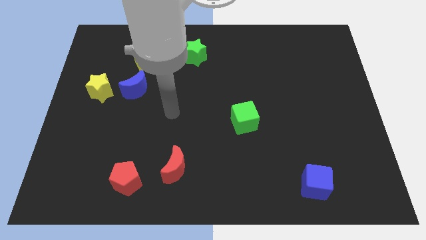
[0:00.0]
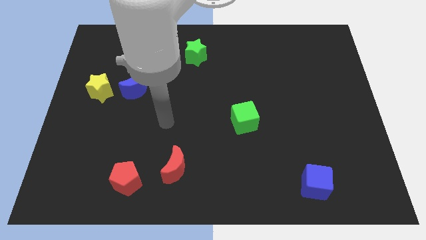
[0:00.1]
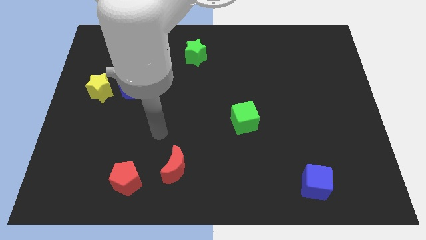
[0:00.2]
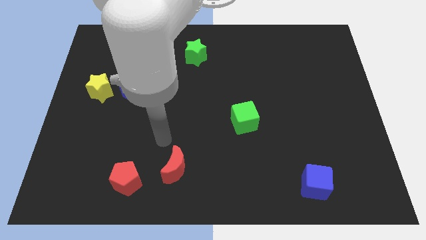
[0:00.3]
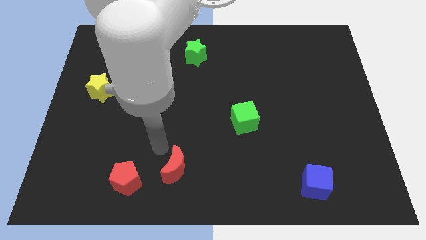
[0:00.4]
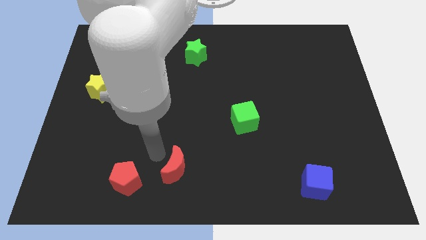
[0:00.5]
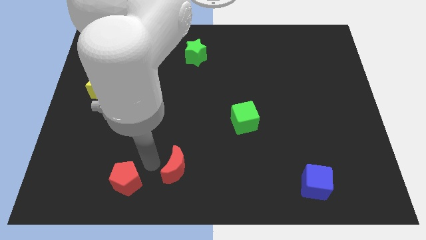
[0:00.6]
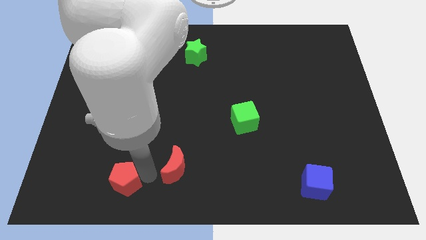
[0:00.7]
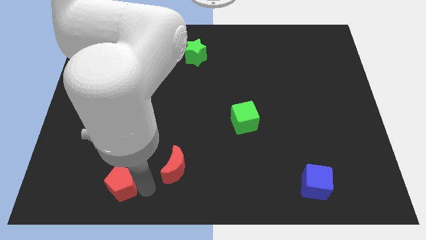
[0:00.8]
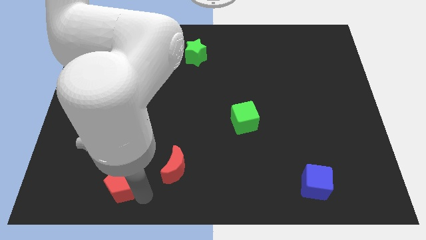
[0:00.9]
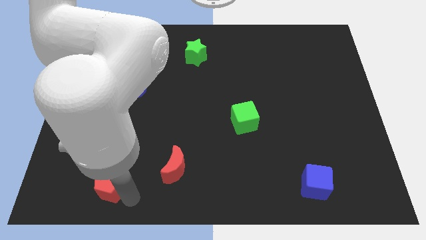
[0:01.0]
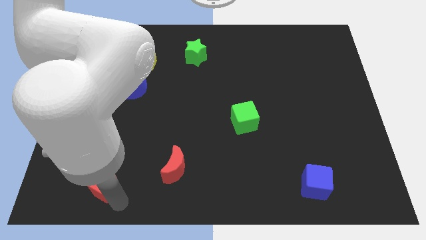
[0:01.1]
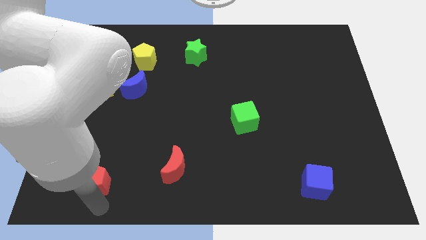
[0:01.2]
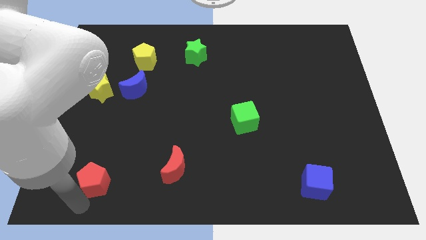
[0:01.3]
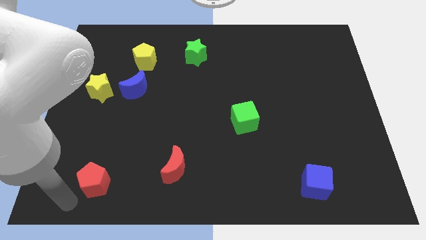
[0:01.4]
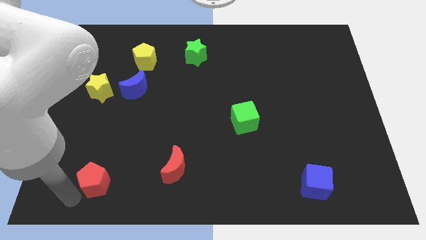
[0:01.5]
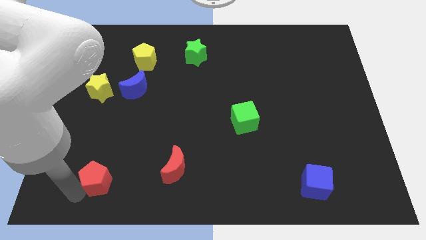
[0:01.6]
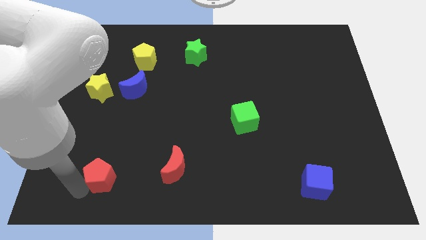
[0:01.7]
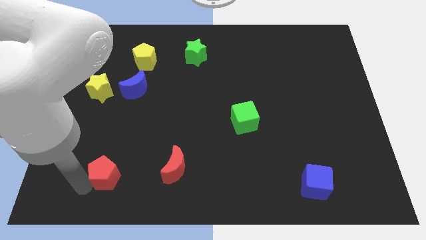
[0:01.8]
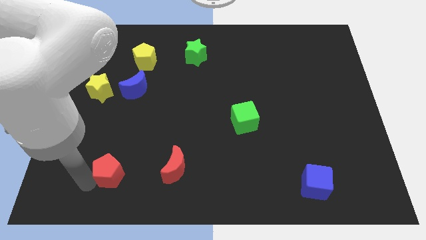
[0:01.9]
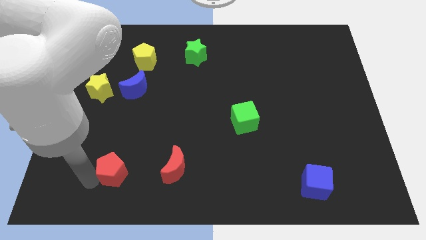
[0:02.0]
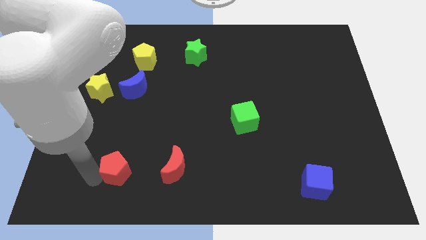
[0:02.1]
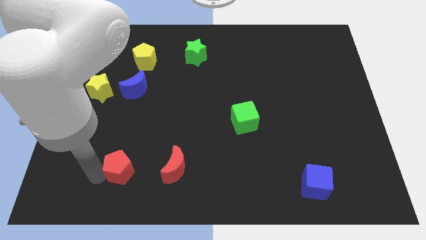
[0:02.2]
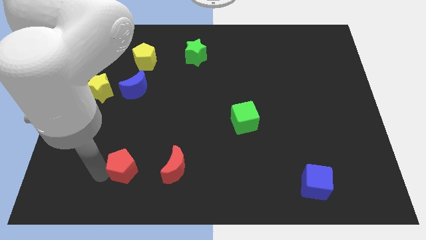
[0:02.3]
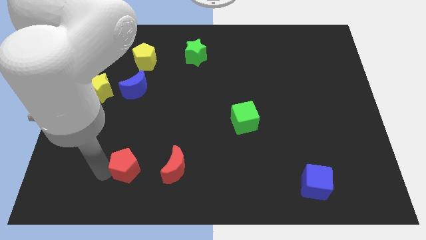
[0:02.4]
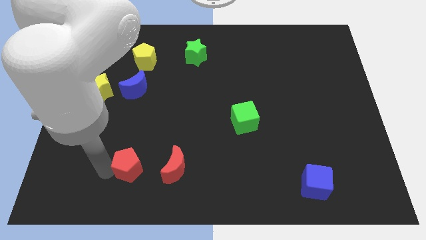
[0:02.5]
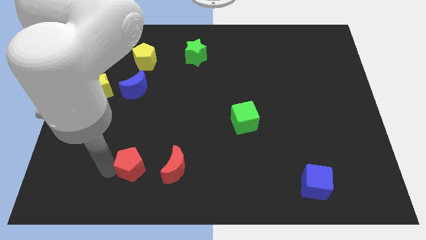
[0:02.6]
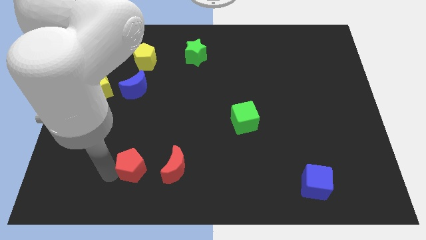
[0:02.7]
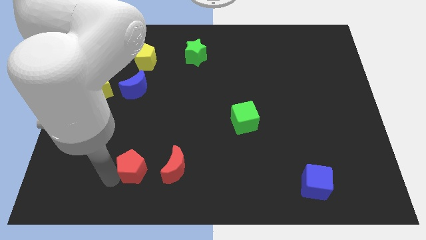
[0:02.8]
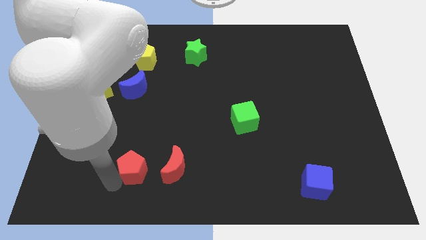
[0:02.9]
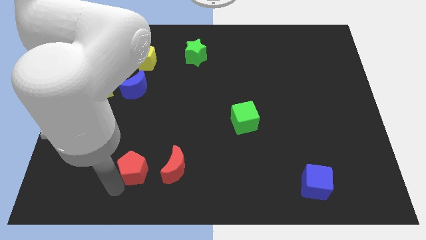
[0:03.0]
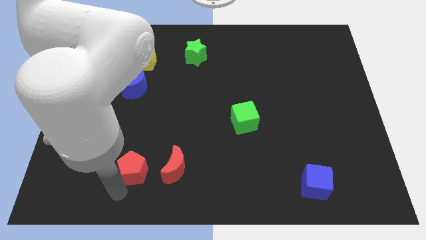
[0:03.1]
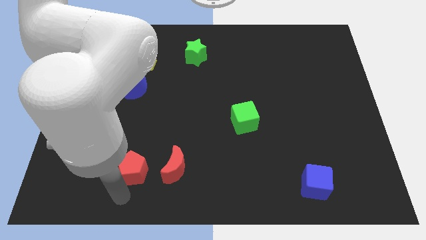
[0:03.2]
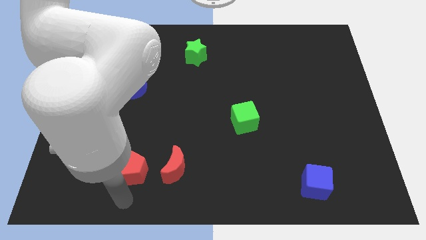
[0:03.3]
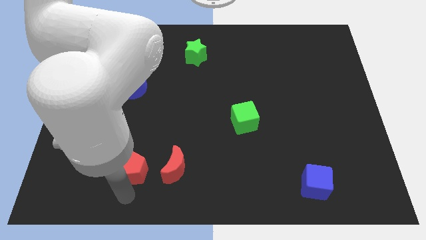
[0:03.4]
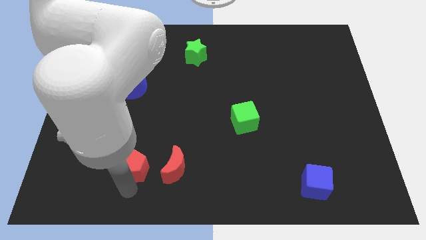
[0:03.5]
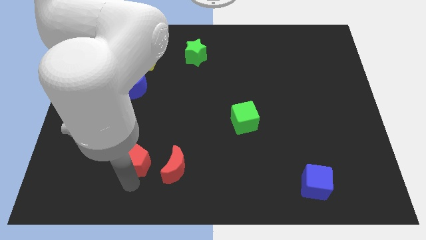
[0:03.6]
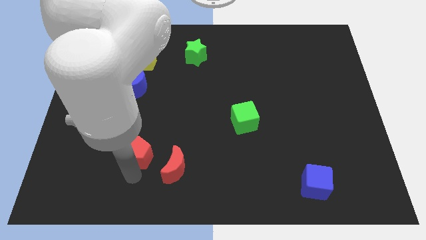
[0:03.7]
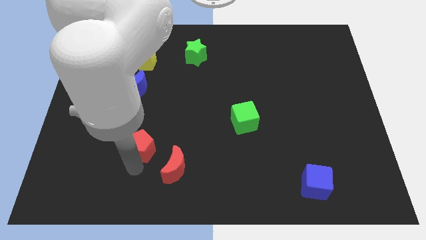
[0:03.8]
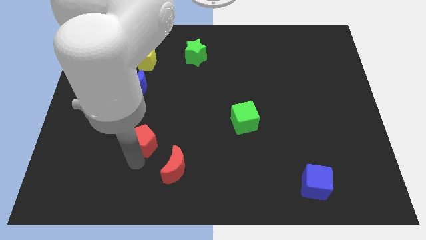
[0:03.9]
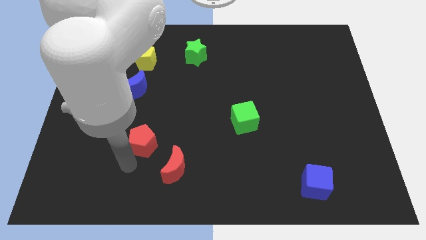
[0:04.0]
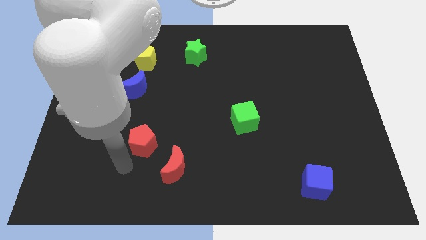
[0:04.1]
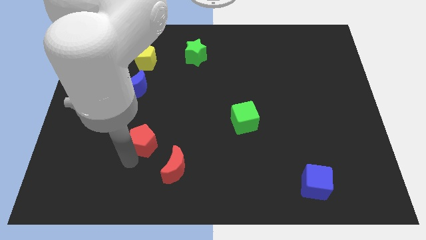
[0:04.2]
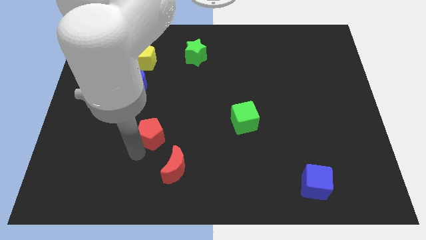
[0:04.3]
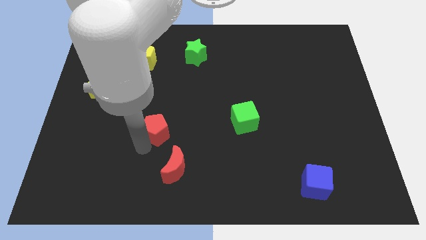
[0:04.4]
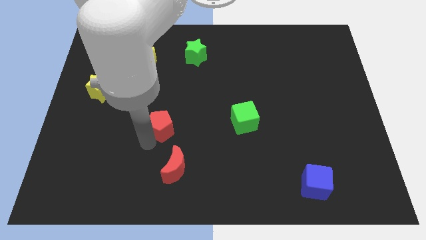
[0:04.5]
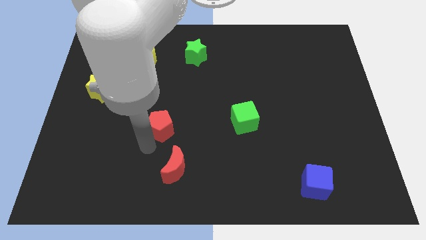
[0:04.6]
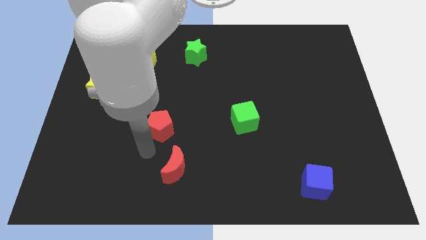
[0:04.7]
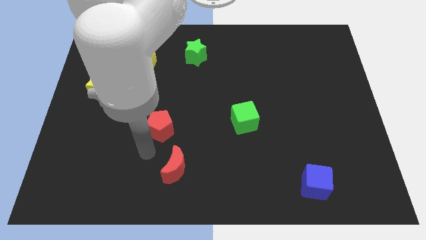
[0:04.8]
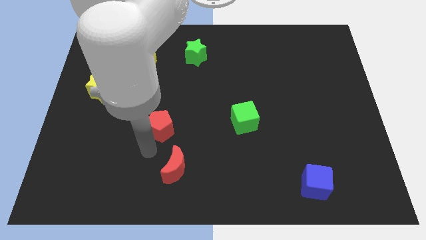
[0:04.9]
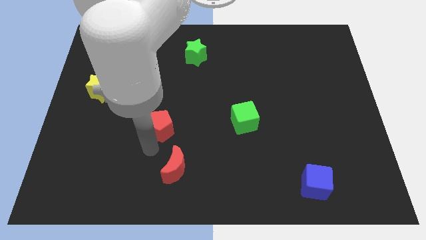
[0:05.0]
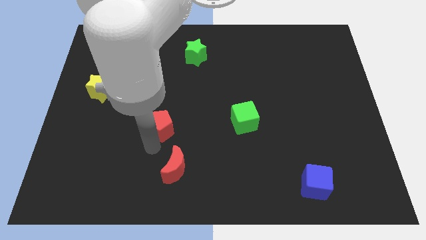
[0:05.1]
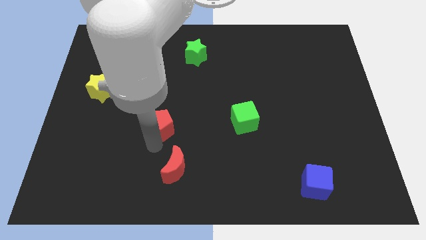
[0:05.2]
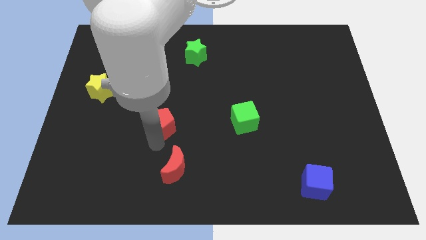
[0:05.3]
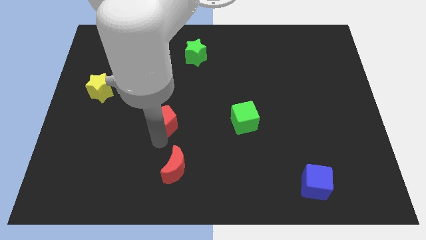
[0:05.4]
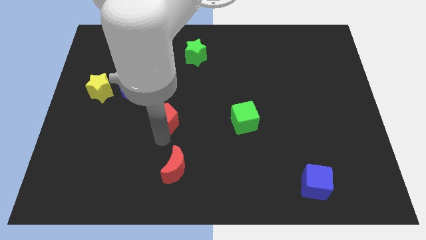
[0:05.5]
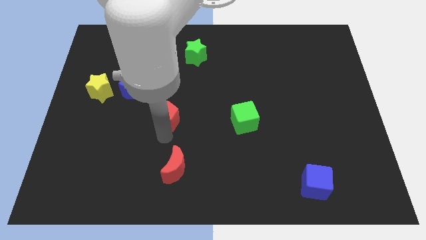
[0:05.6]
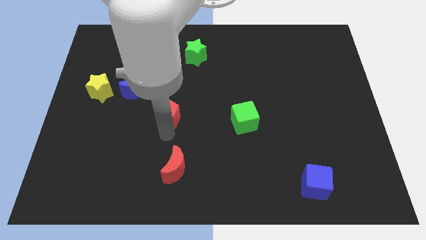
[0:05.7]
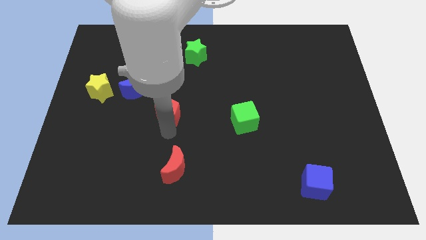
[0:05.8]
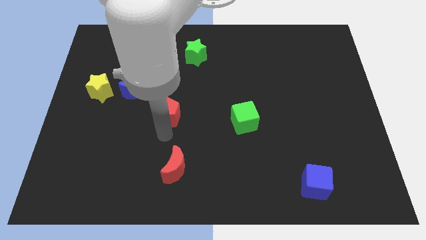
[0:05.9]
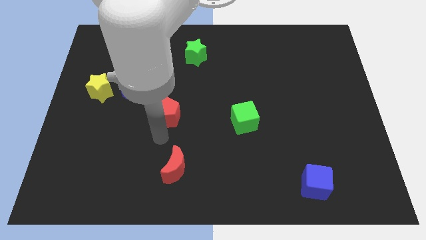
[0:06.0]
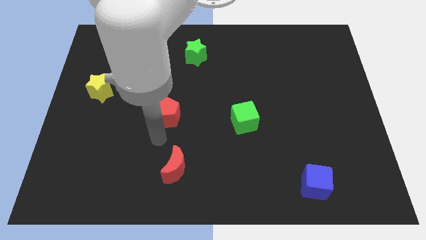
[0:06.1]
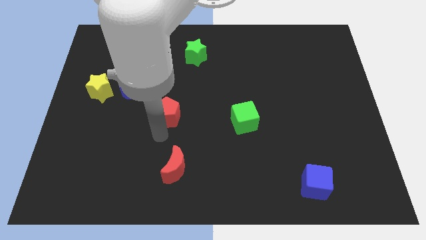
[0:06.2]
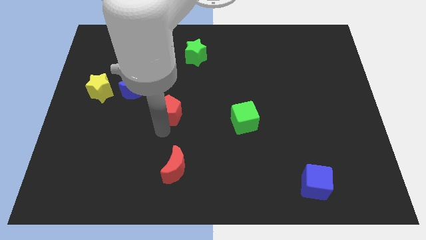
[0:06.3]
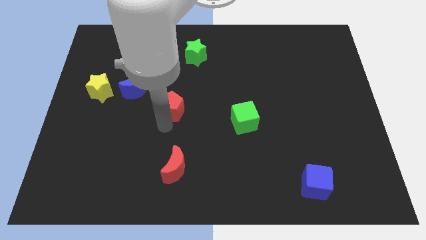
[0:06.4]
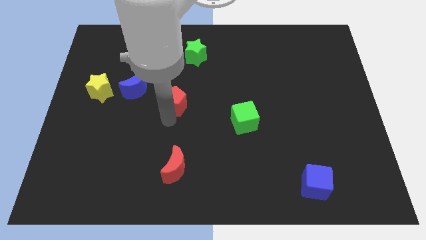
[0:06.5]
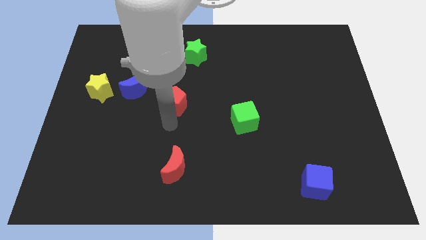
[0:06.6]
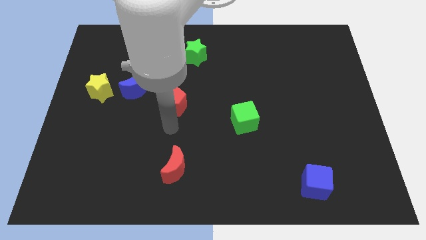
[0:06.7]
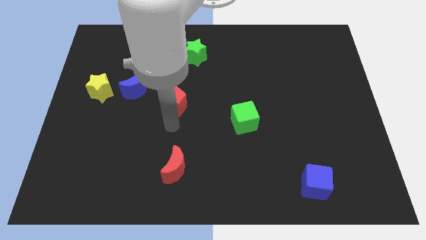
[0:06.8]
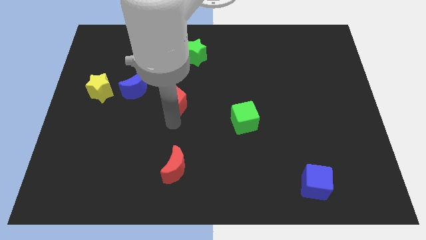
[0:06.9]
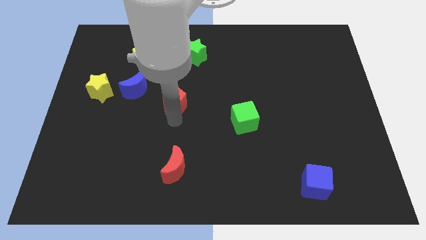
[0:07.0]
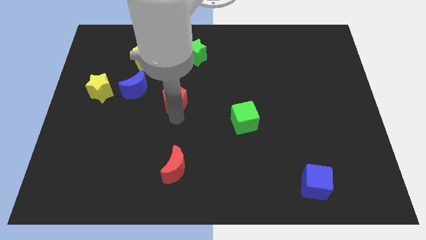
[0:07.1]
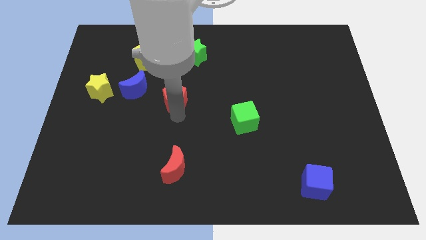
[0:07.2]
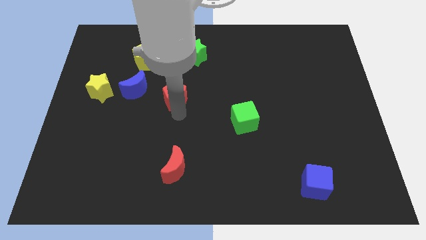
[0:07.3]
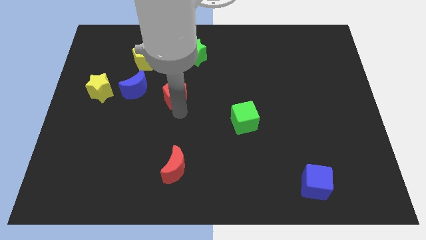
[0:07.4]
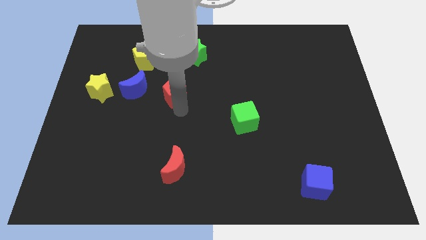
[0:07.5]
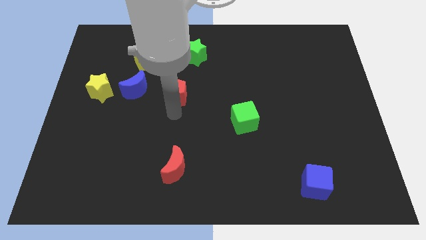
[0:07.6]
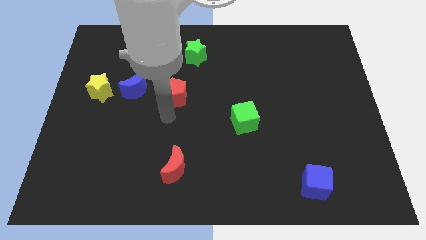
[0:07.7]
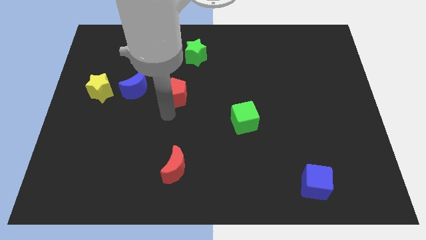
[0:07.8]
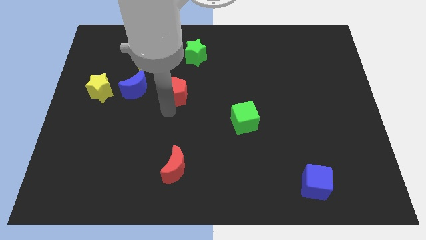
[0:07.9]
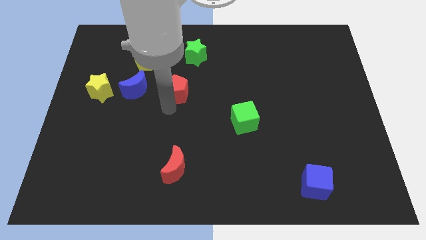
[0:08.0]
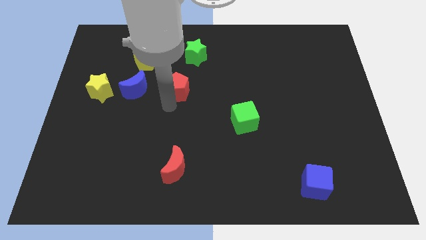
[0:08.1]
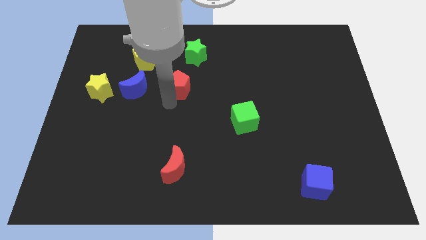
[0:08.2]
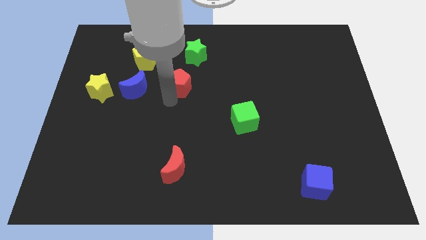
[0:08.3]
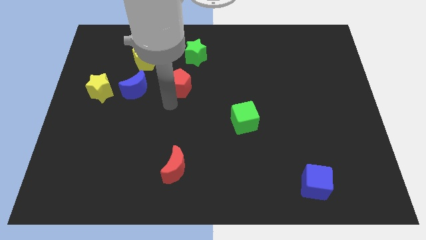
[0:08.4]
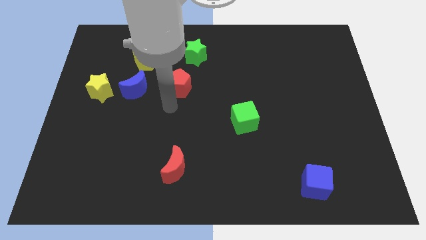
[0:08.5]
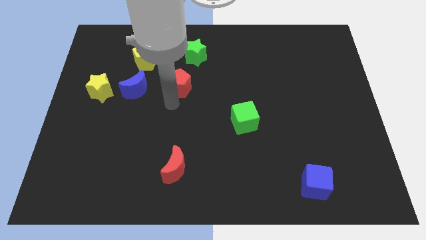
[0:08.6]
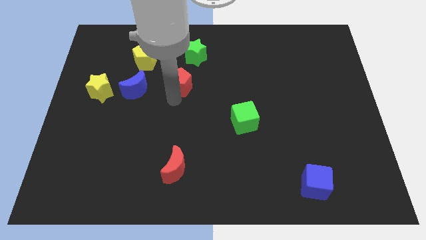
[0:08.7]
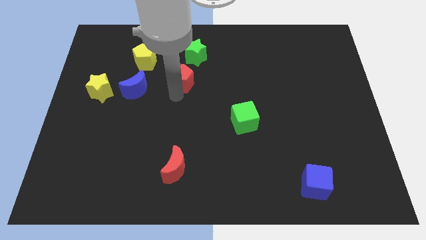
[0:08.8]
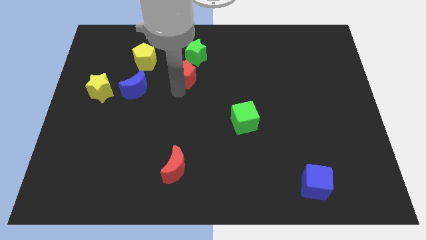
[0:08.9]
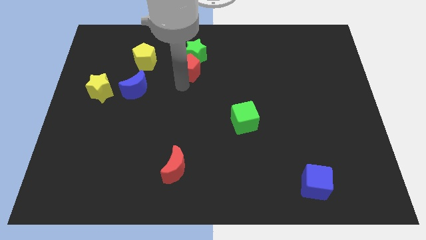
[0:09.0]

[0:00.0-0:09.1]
push the red pentagon to the green star
